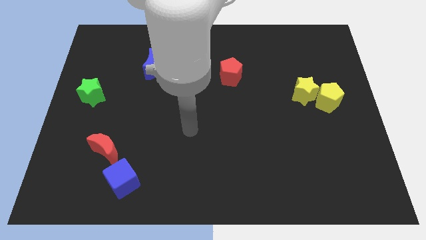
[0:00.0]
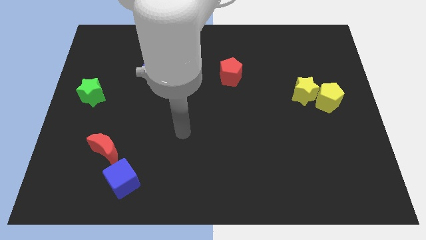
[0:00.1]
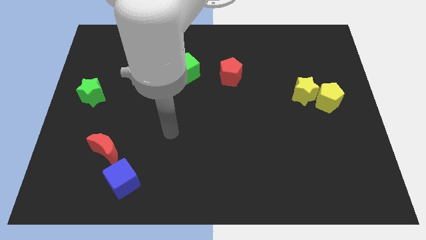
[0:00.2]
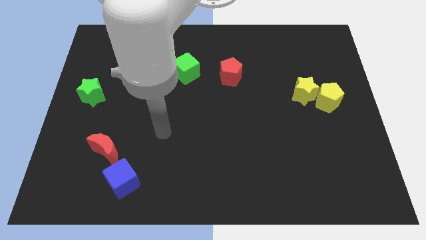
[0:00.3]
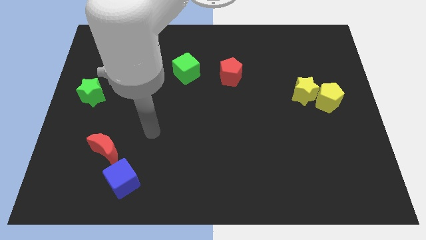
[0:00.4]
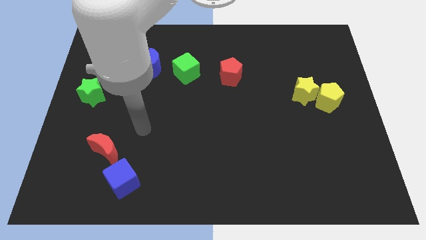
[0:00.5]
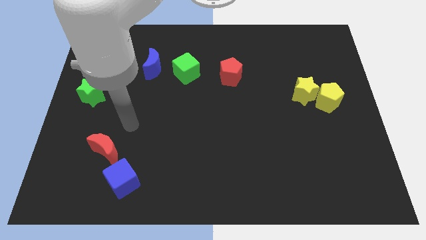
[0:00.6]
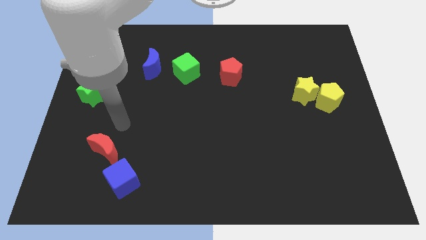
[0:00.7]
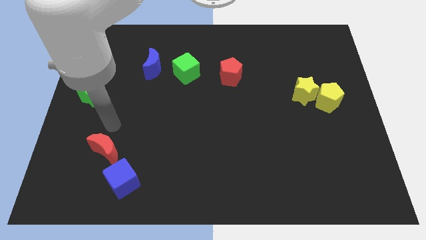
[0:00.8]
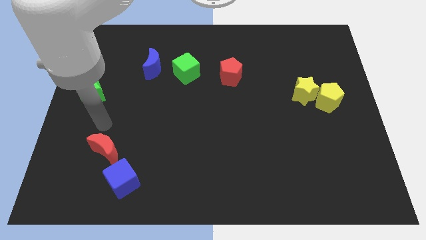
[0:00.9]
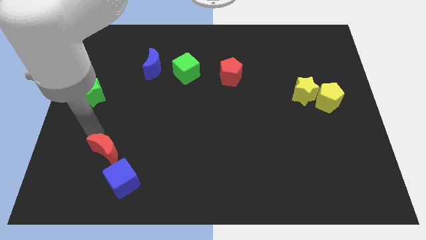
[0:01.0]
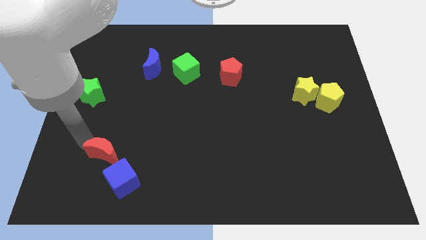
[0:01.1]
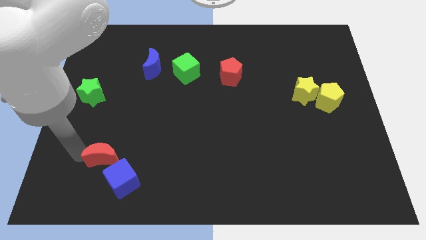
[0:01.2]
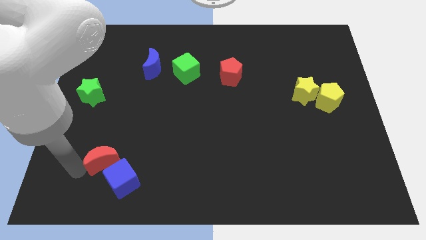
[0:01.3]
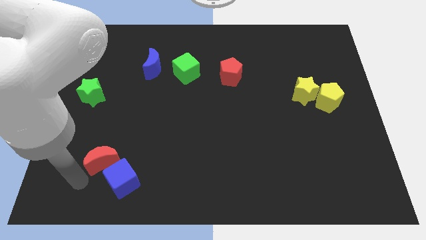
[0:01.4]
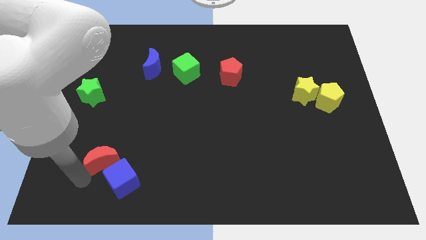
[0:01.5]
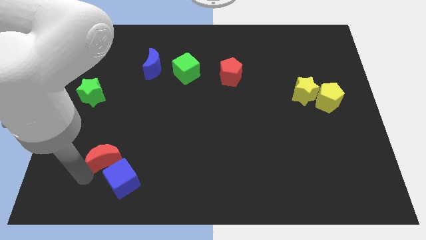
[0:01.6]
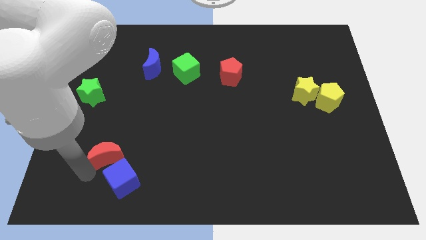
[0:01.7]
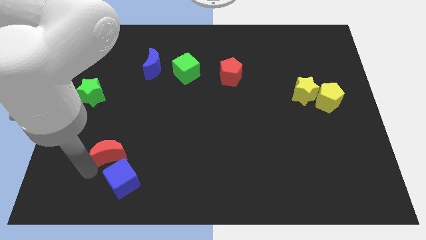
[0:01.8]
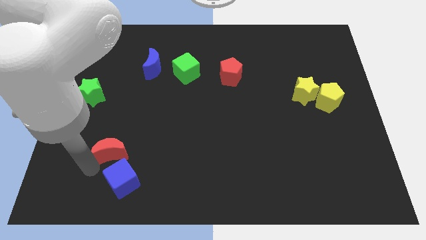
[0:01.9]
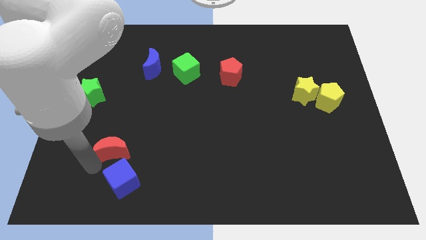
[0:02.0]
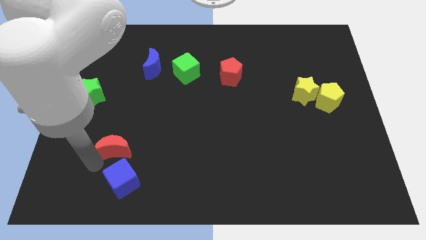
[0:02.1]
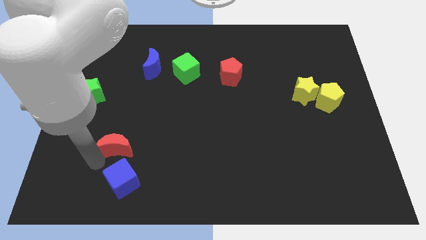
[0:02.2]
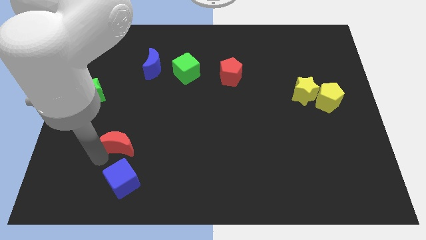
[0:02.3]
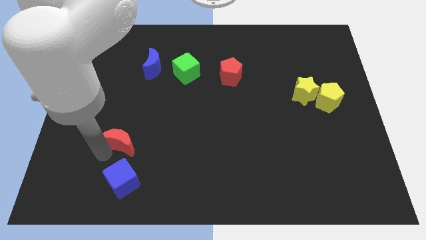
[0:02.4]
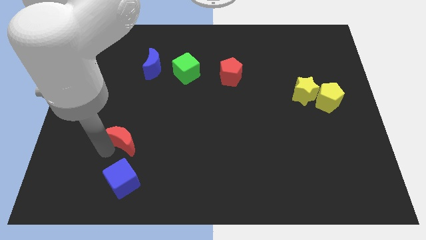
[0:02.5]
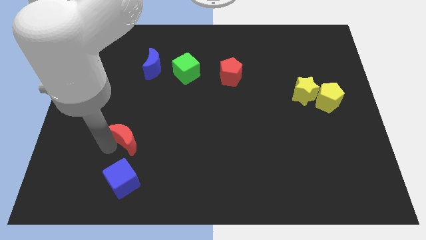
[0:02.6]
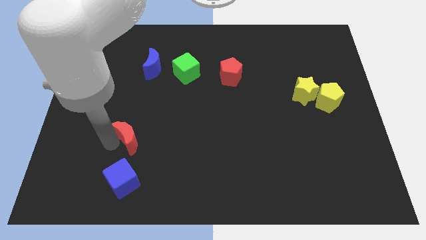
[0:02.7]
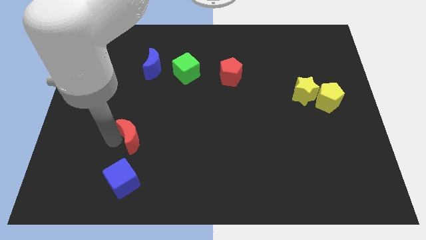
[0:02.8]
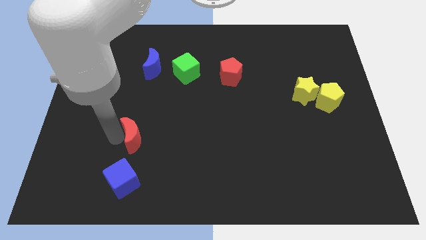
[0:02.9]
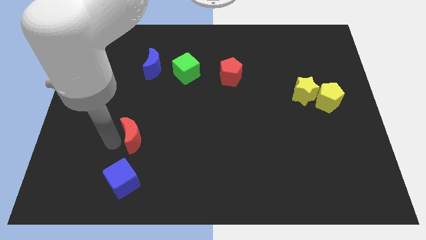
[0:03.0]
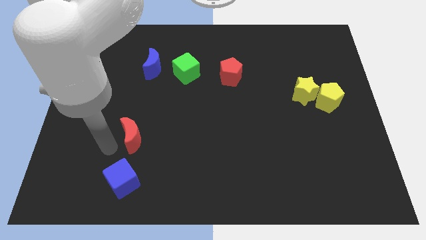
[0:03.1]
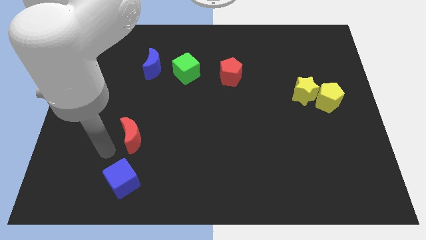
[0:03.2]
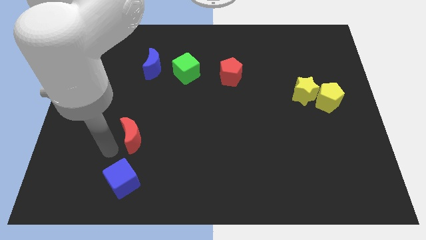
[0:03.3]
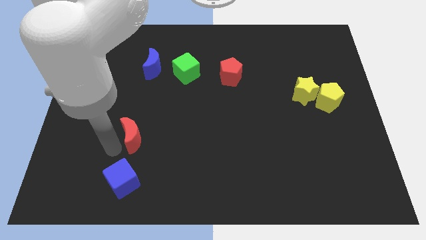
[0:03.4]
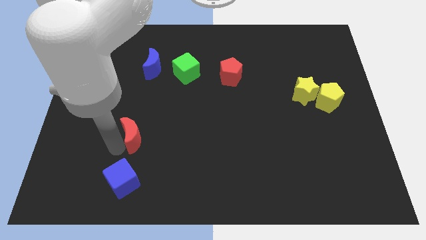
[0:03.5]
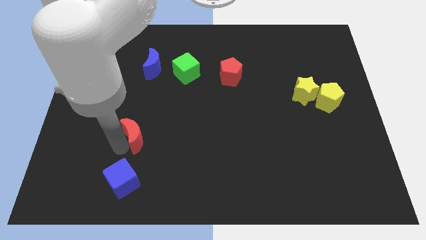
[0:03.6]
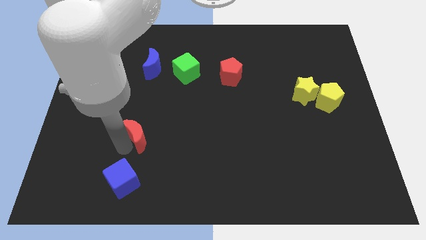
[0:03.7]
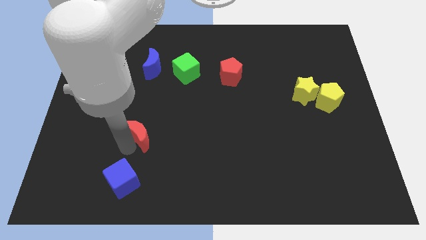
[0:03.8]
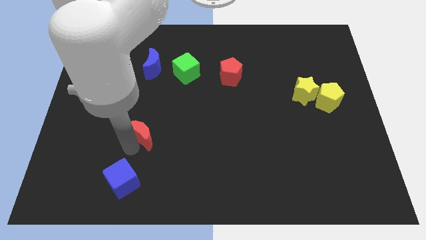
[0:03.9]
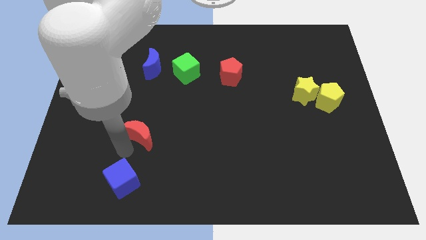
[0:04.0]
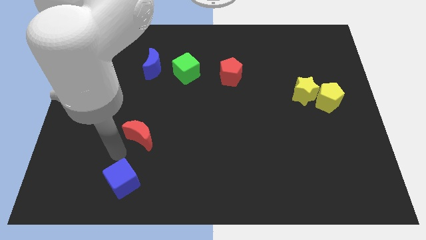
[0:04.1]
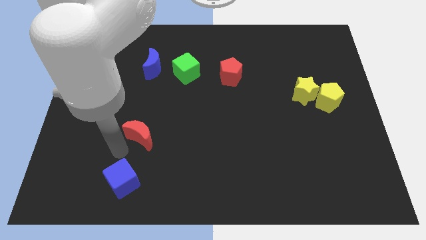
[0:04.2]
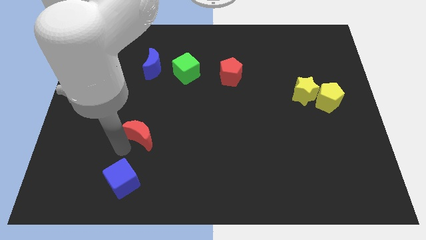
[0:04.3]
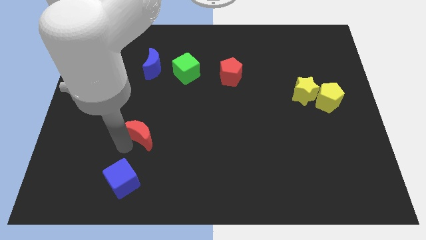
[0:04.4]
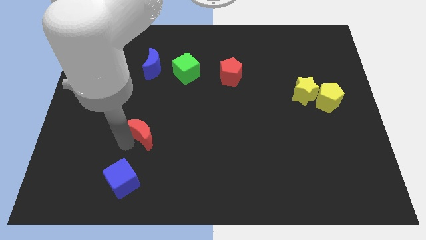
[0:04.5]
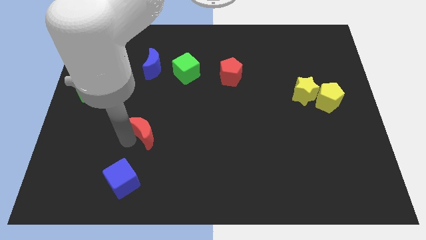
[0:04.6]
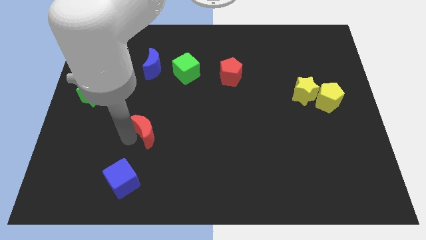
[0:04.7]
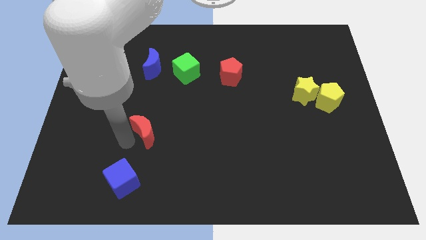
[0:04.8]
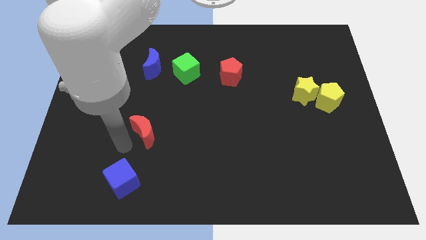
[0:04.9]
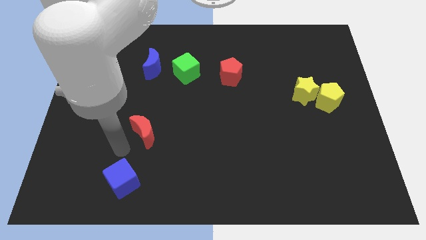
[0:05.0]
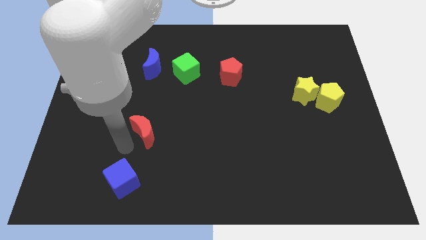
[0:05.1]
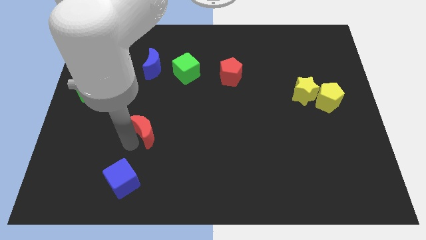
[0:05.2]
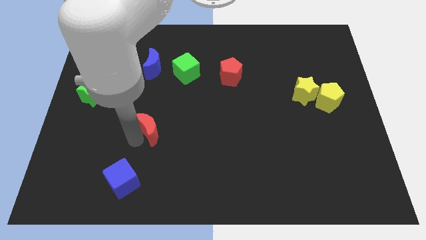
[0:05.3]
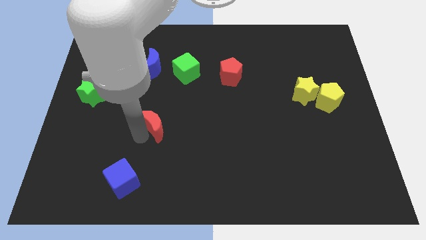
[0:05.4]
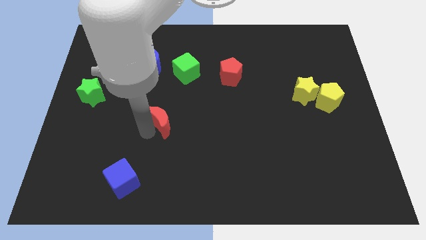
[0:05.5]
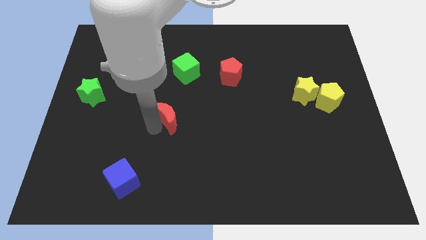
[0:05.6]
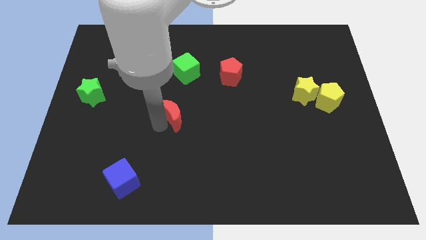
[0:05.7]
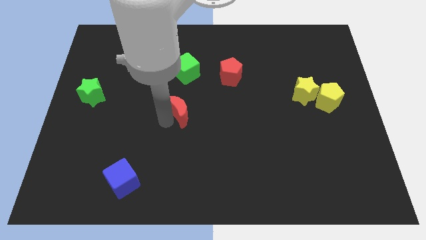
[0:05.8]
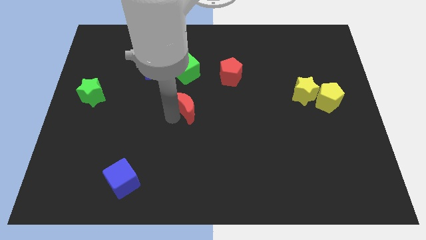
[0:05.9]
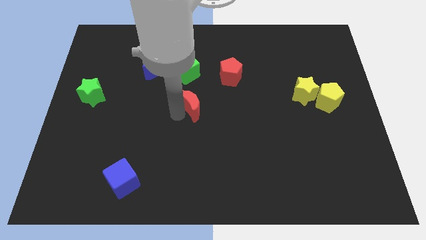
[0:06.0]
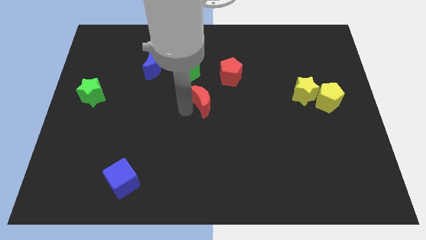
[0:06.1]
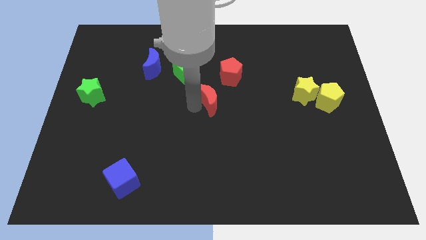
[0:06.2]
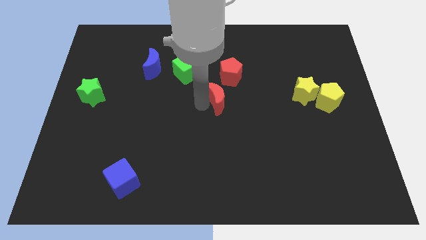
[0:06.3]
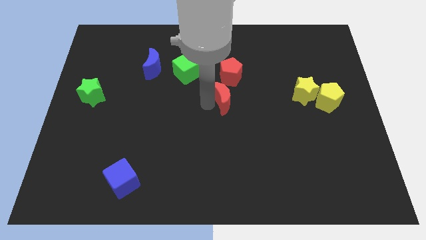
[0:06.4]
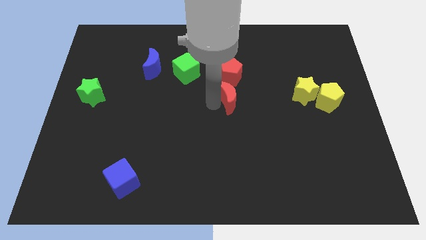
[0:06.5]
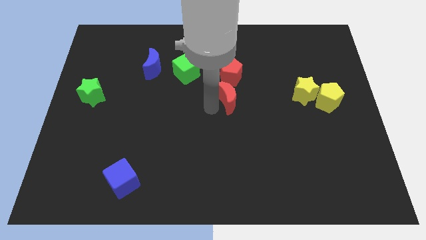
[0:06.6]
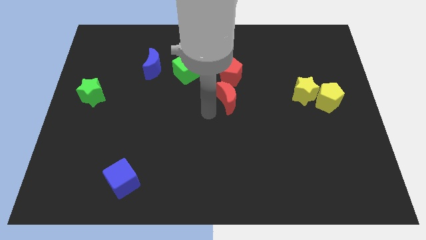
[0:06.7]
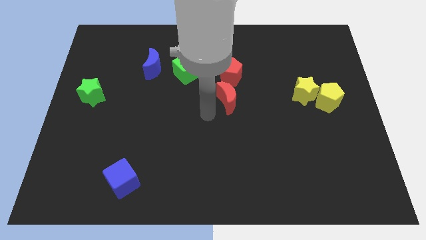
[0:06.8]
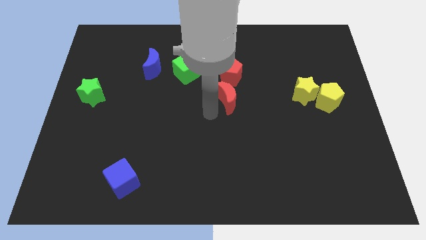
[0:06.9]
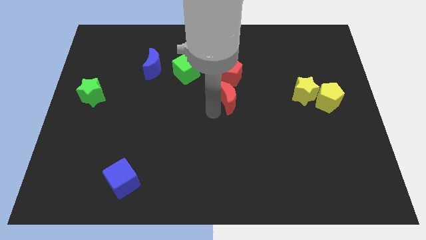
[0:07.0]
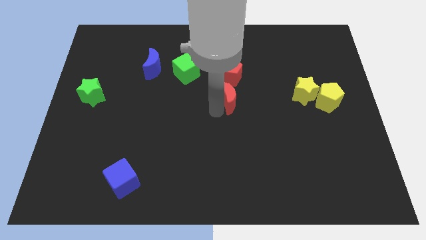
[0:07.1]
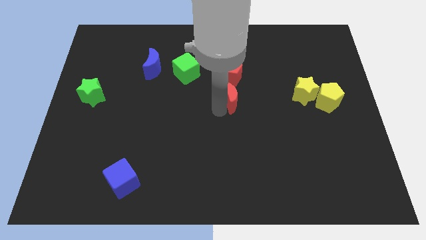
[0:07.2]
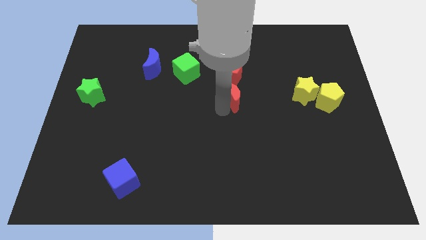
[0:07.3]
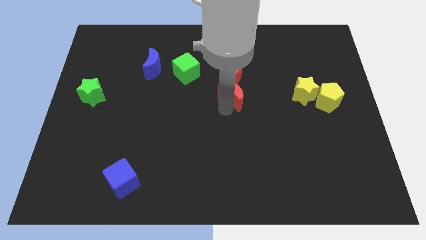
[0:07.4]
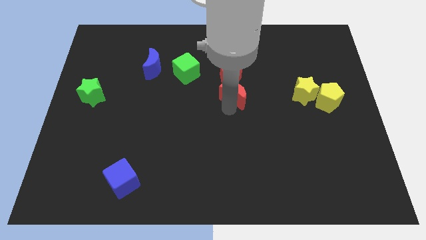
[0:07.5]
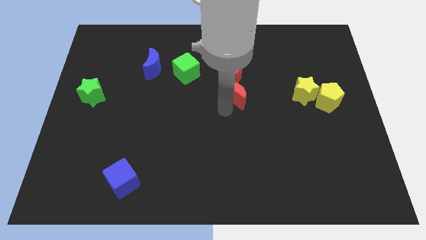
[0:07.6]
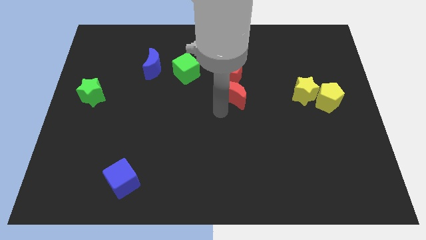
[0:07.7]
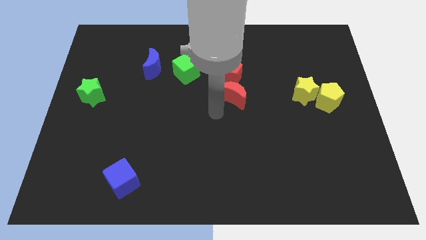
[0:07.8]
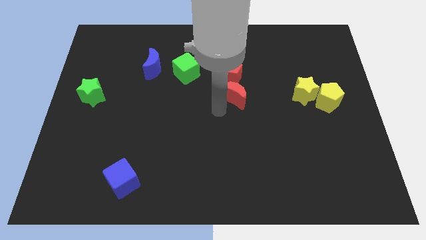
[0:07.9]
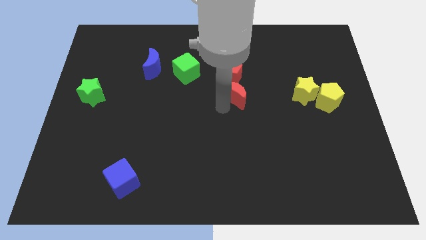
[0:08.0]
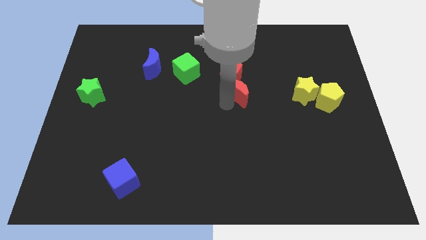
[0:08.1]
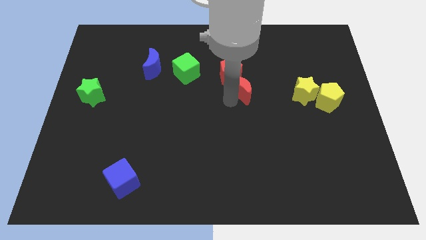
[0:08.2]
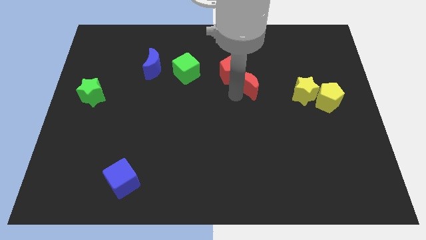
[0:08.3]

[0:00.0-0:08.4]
put the red moon just right of the red pentagon
